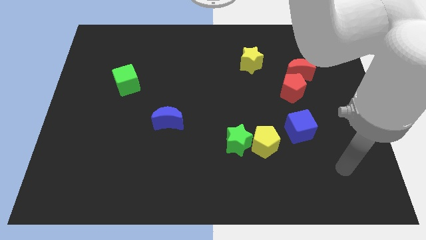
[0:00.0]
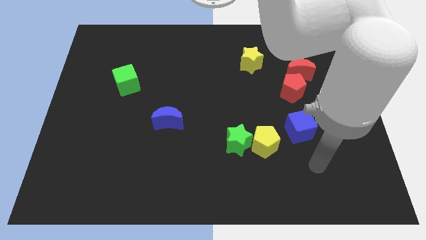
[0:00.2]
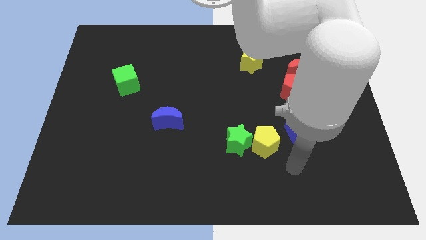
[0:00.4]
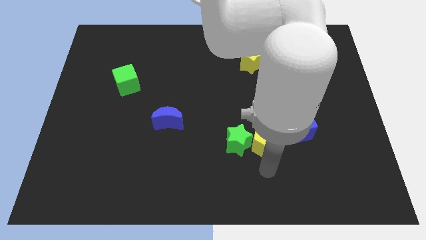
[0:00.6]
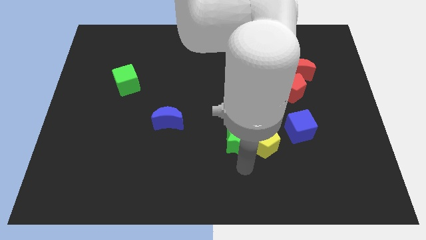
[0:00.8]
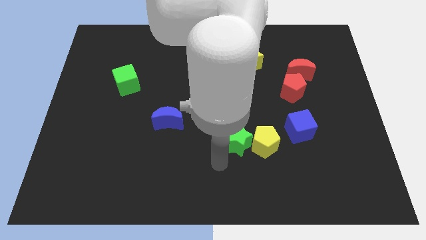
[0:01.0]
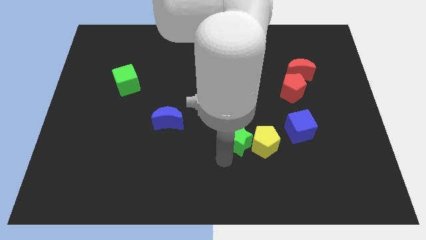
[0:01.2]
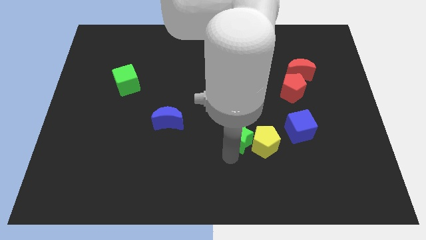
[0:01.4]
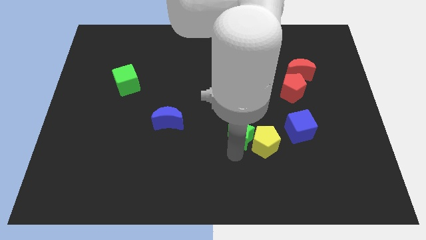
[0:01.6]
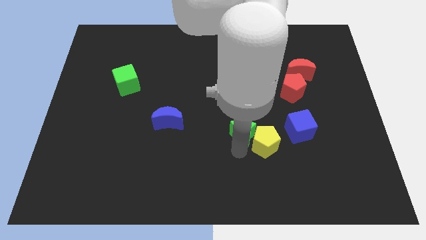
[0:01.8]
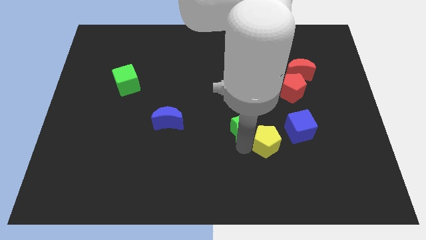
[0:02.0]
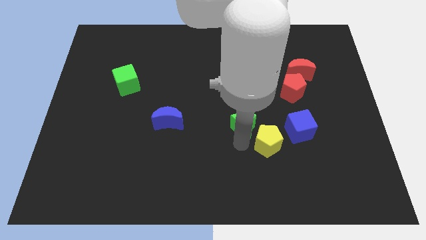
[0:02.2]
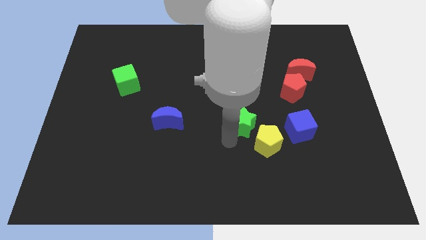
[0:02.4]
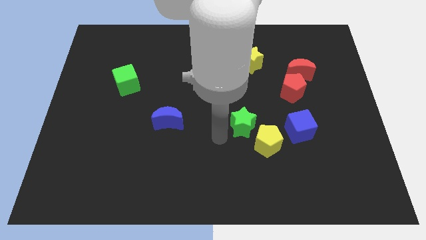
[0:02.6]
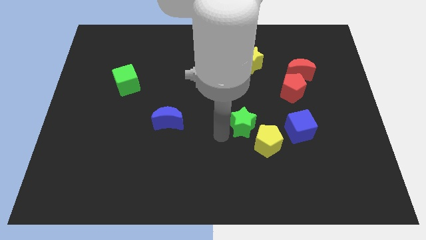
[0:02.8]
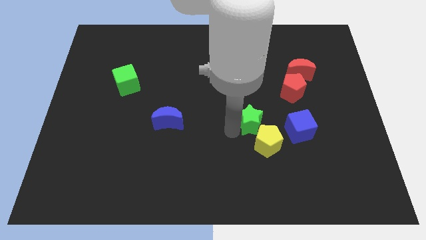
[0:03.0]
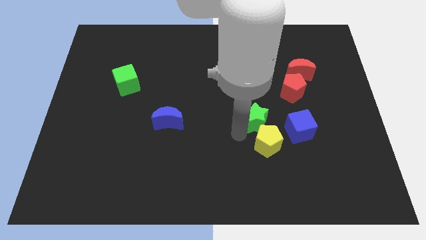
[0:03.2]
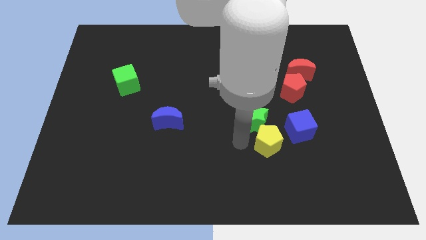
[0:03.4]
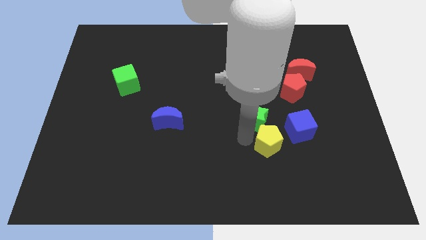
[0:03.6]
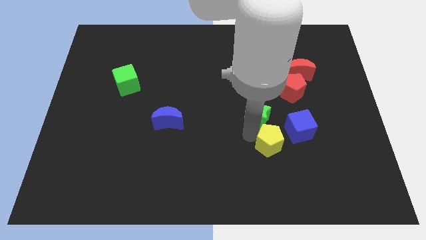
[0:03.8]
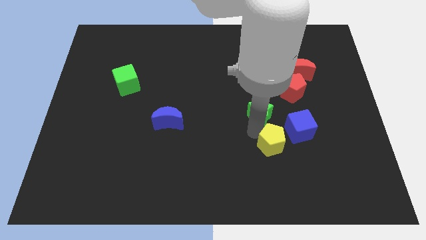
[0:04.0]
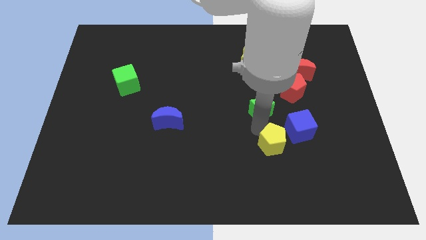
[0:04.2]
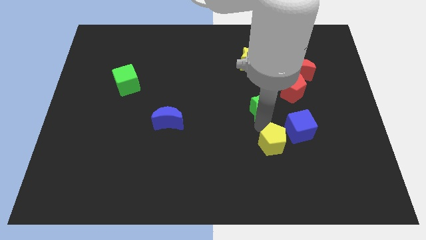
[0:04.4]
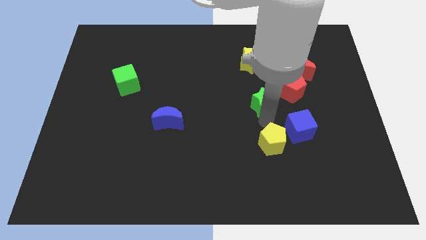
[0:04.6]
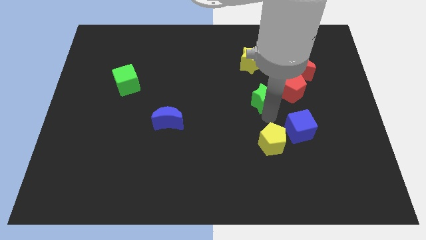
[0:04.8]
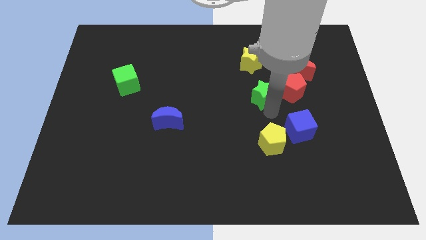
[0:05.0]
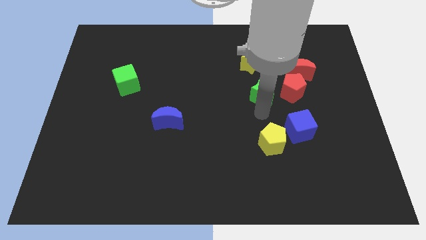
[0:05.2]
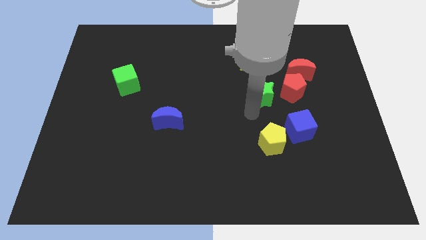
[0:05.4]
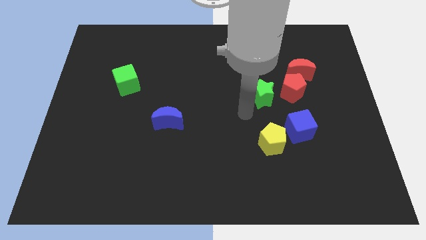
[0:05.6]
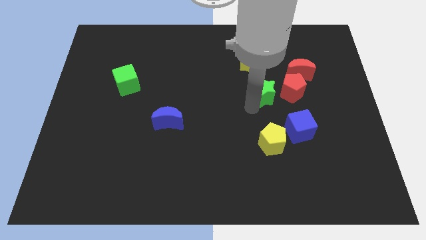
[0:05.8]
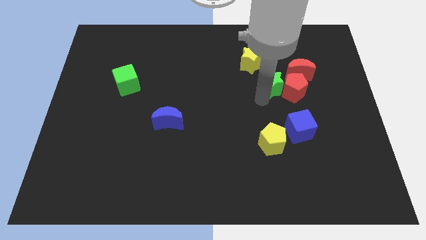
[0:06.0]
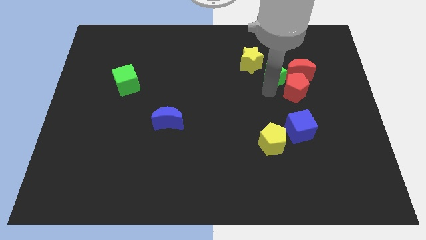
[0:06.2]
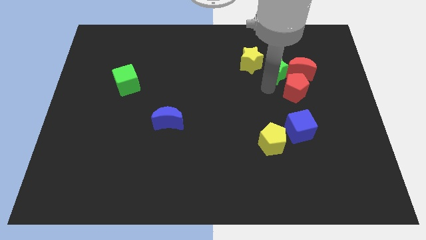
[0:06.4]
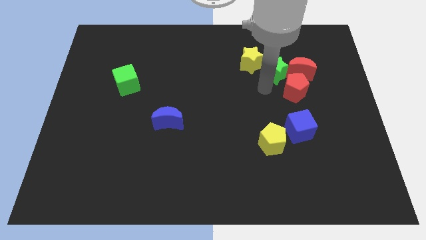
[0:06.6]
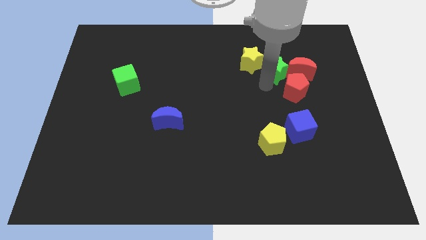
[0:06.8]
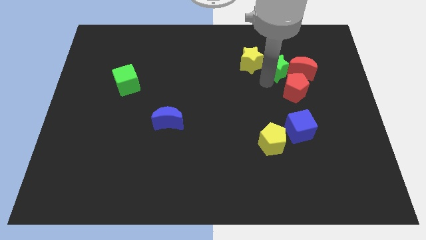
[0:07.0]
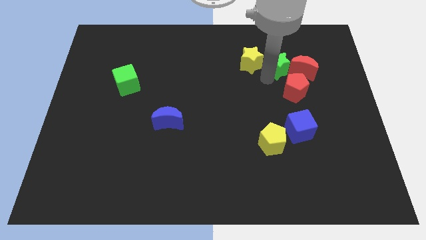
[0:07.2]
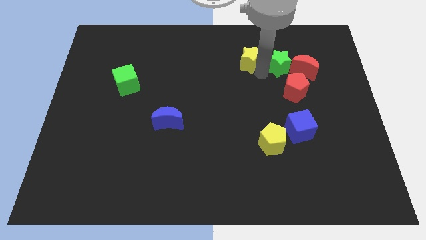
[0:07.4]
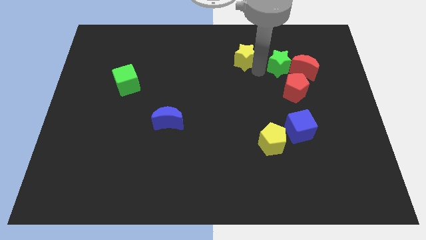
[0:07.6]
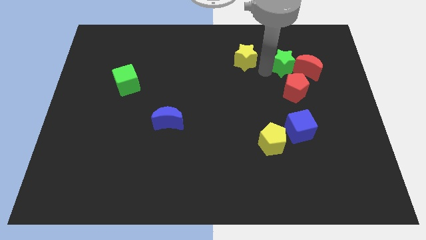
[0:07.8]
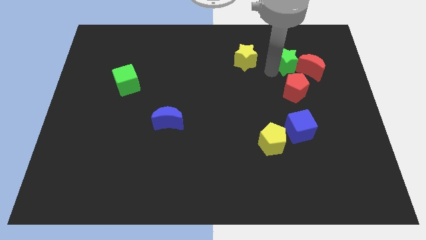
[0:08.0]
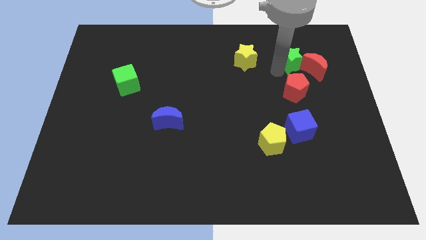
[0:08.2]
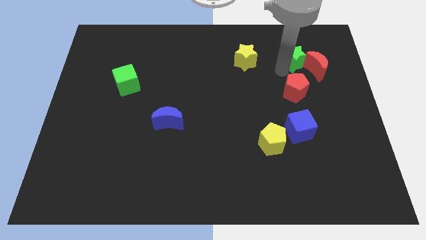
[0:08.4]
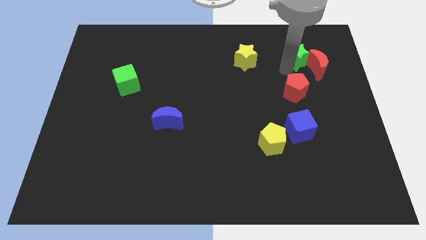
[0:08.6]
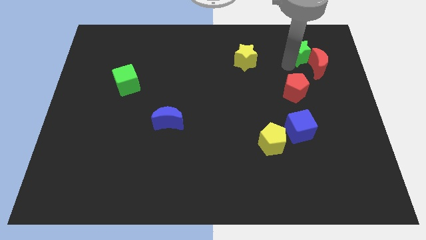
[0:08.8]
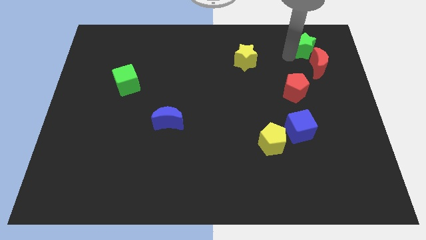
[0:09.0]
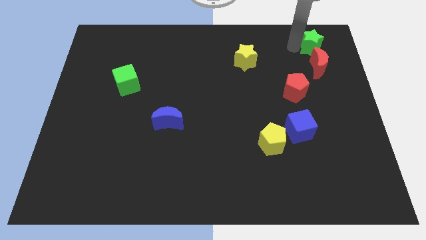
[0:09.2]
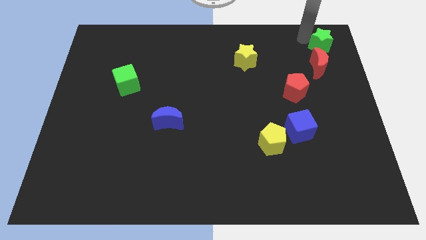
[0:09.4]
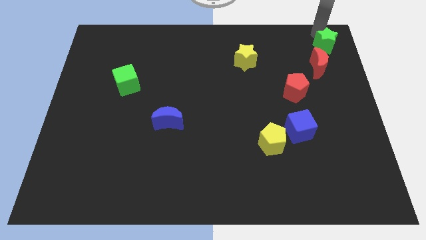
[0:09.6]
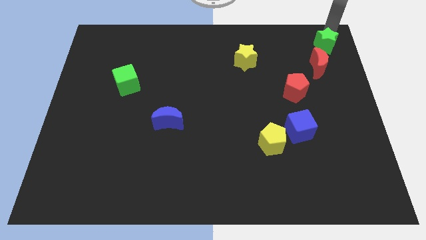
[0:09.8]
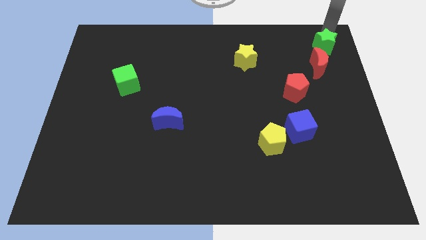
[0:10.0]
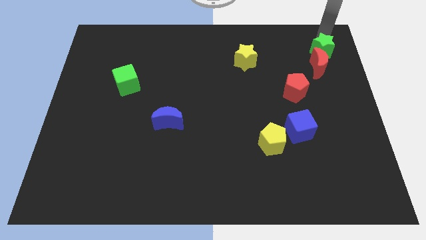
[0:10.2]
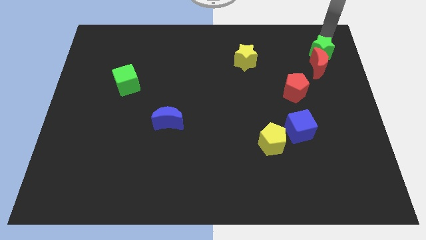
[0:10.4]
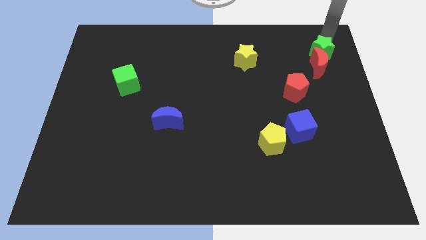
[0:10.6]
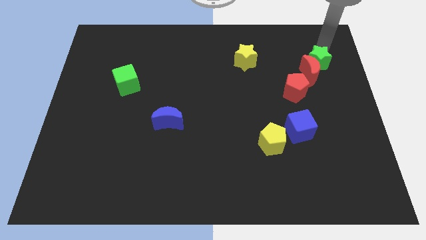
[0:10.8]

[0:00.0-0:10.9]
slide the green star diagonally up and to the right of the red pentagon

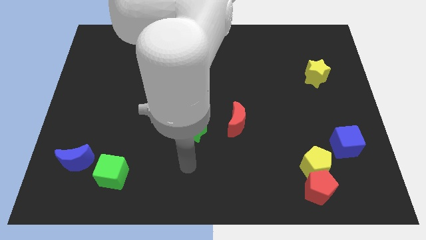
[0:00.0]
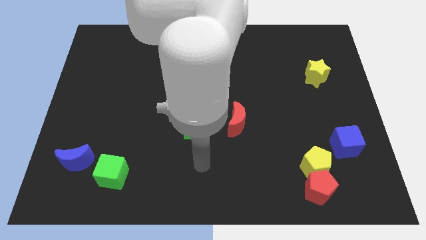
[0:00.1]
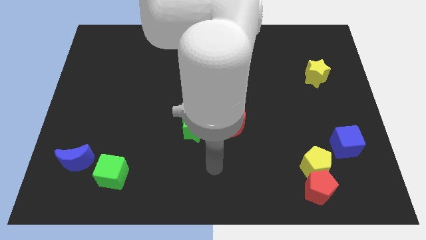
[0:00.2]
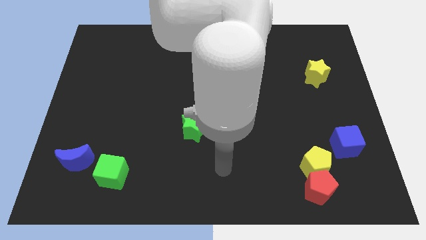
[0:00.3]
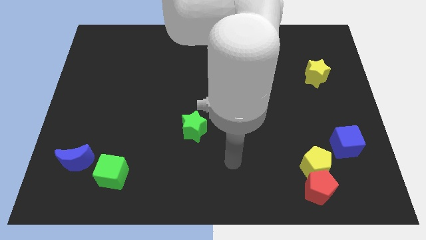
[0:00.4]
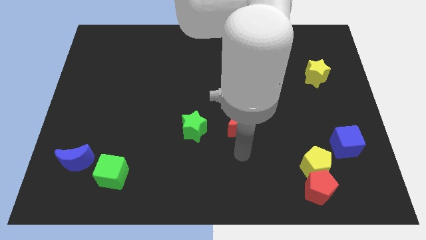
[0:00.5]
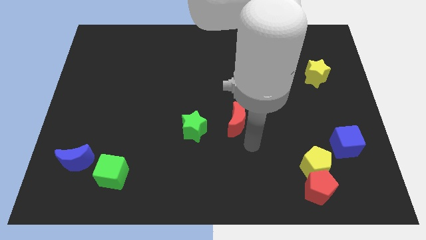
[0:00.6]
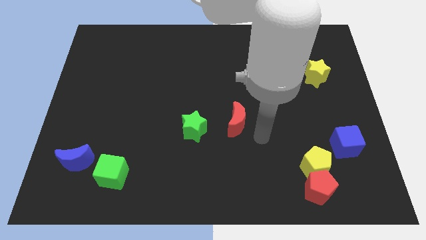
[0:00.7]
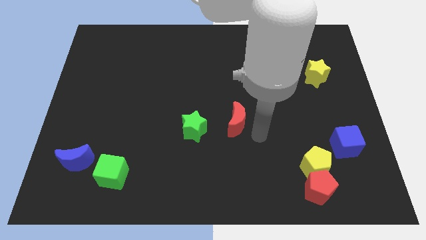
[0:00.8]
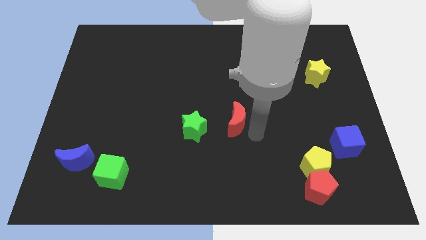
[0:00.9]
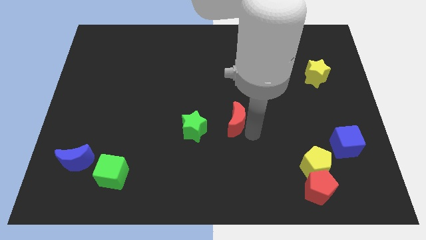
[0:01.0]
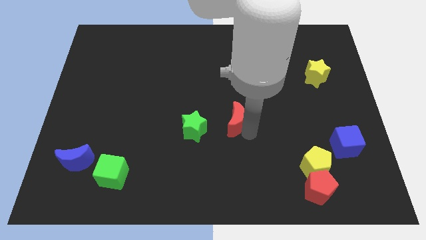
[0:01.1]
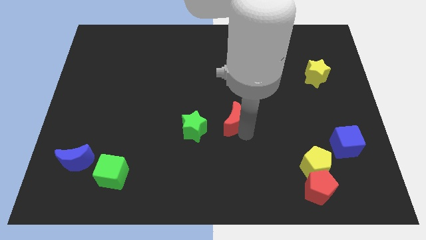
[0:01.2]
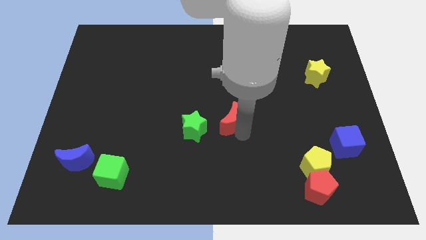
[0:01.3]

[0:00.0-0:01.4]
move the red moon to the top right side of the green star
